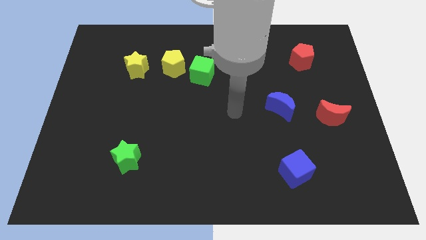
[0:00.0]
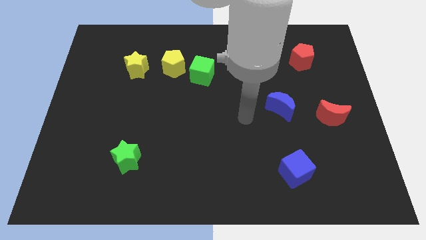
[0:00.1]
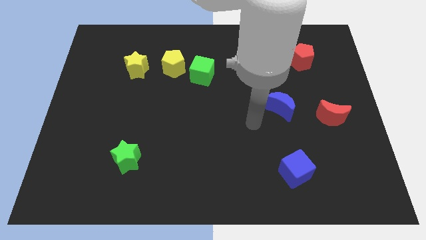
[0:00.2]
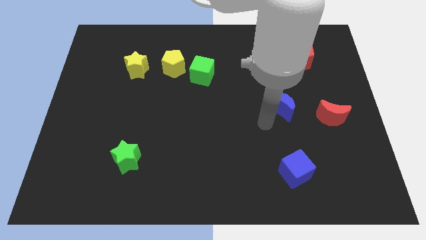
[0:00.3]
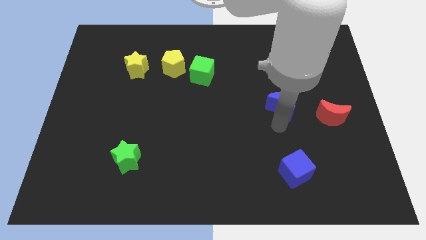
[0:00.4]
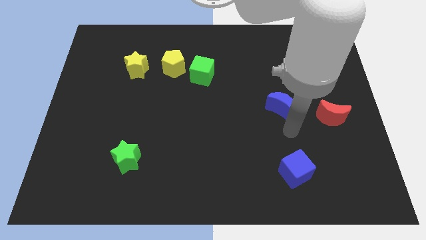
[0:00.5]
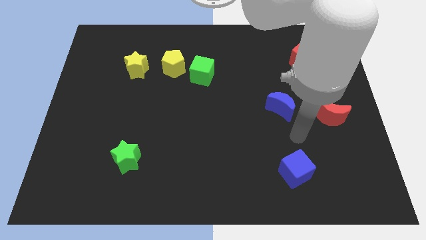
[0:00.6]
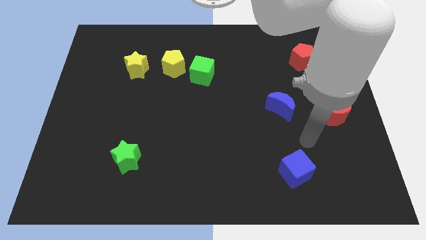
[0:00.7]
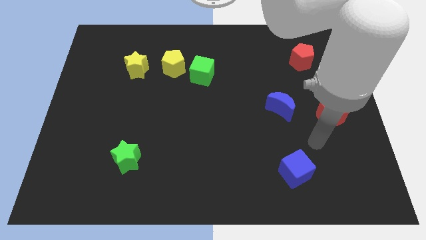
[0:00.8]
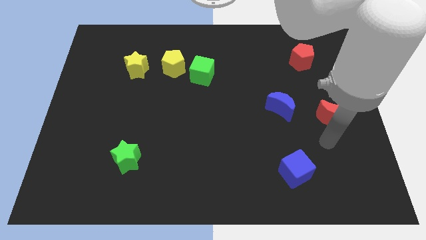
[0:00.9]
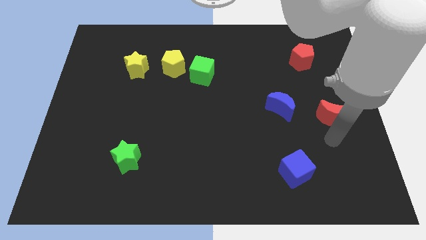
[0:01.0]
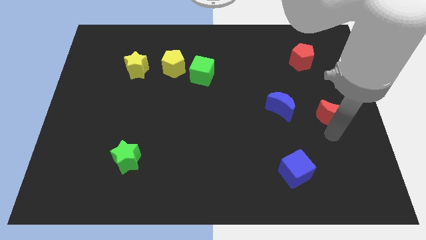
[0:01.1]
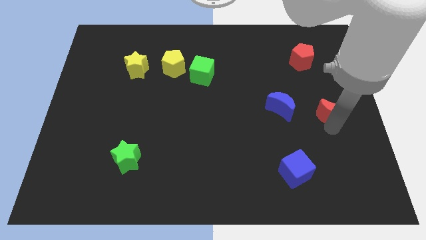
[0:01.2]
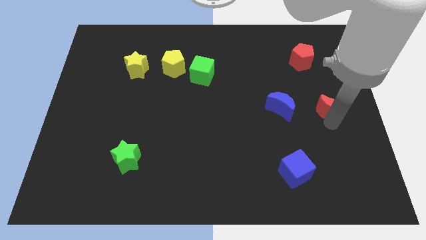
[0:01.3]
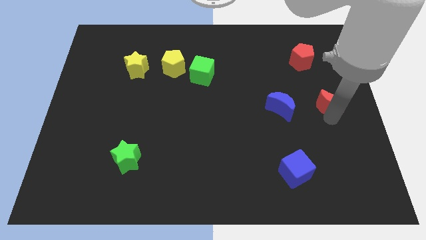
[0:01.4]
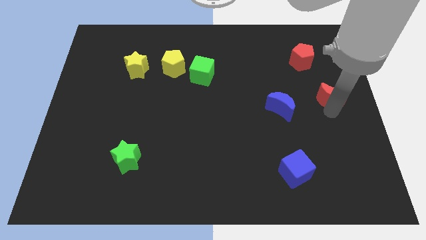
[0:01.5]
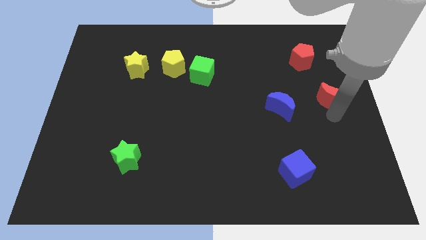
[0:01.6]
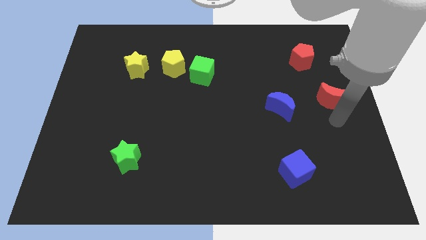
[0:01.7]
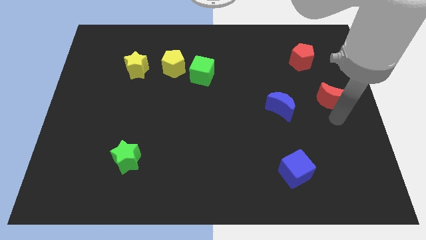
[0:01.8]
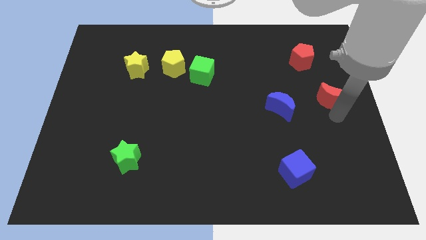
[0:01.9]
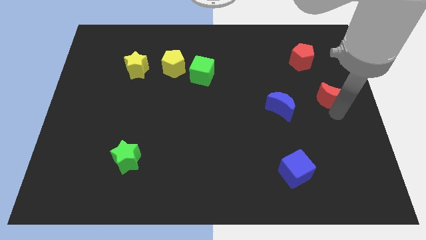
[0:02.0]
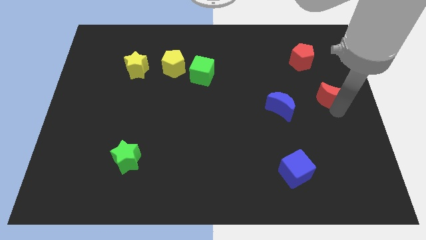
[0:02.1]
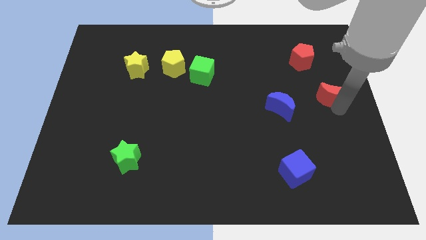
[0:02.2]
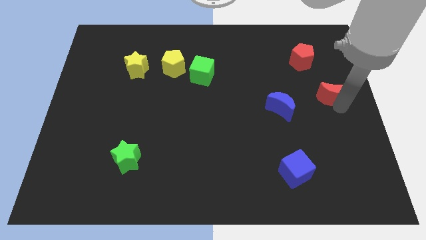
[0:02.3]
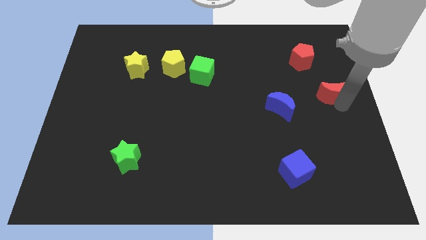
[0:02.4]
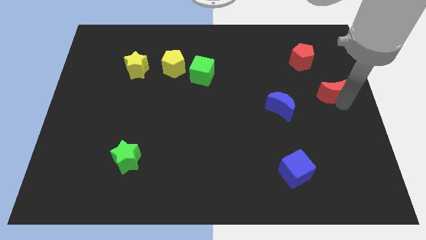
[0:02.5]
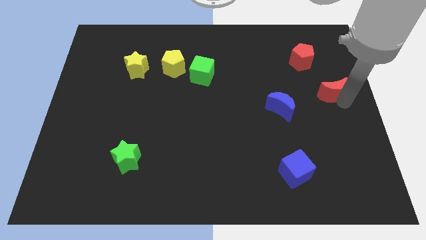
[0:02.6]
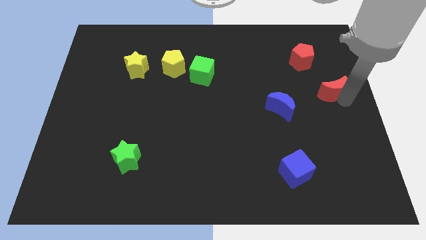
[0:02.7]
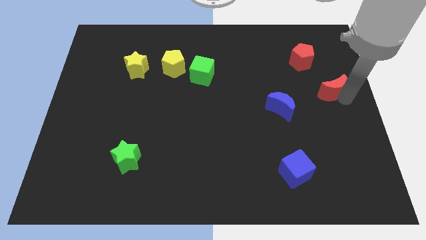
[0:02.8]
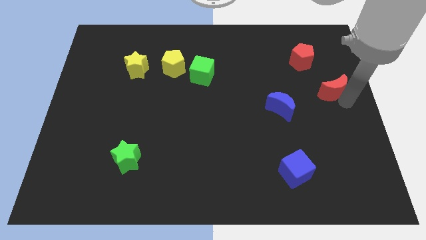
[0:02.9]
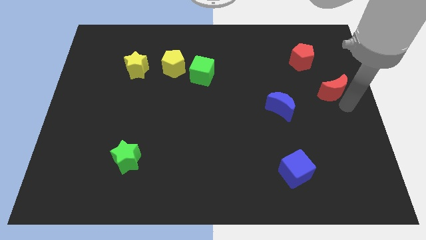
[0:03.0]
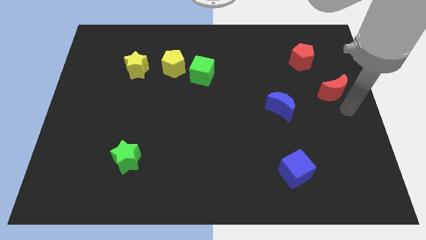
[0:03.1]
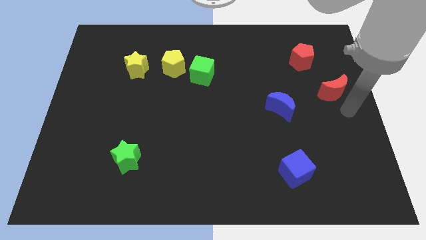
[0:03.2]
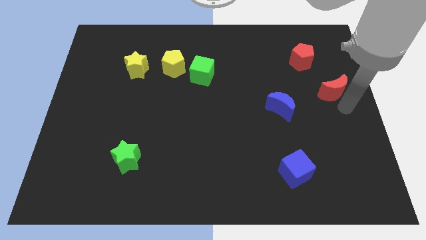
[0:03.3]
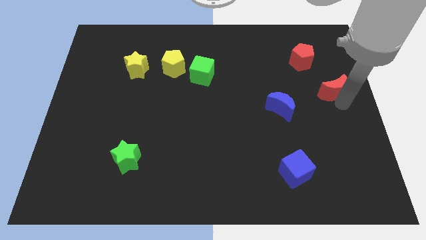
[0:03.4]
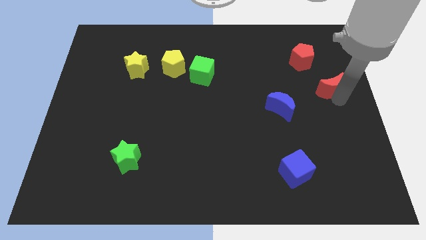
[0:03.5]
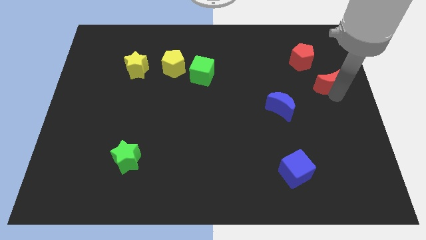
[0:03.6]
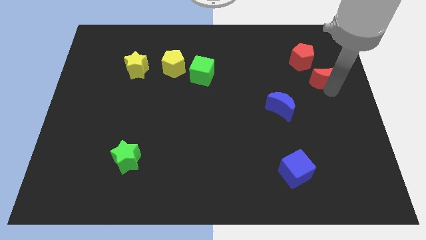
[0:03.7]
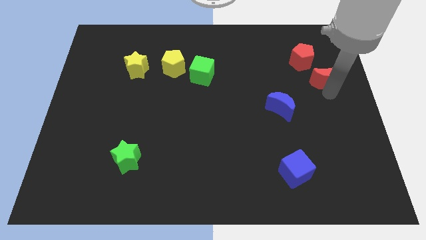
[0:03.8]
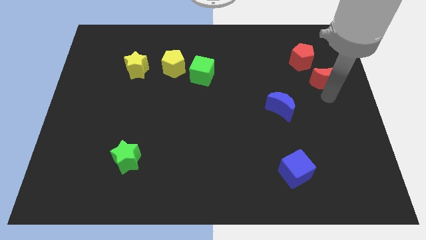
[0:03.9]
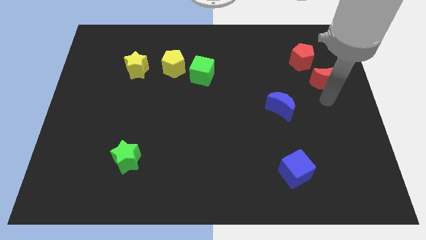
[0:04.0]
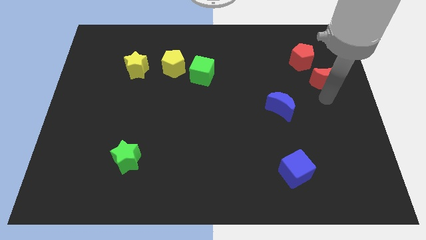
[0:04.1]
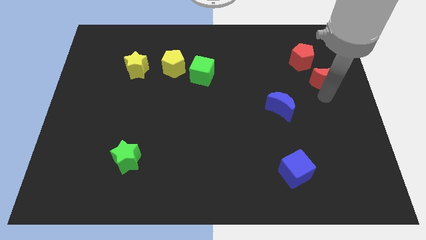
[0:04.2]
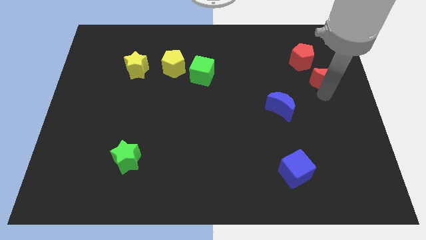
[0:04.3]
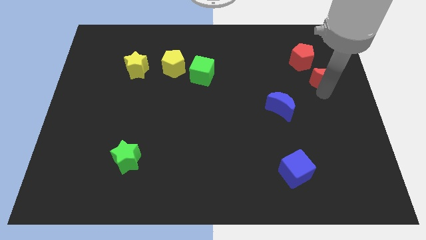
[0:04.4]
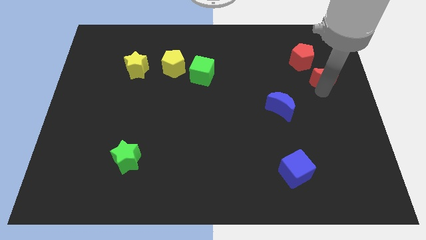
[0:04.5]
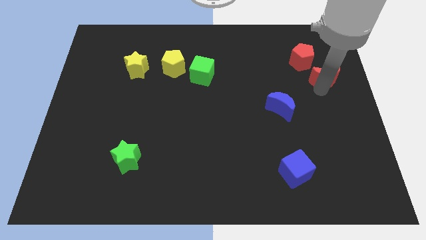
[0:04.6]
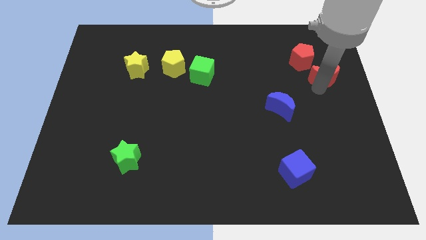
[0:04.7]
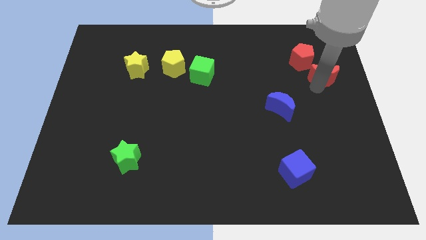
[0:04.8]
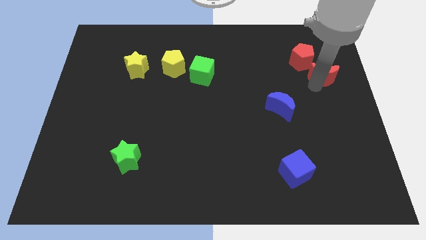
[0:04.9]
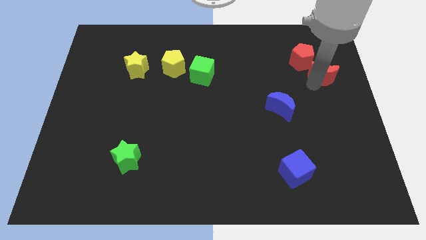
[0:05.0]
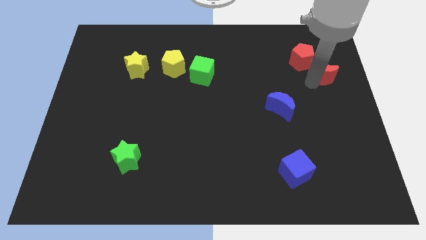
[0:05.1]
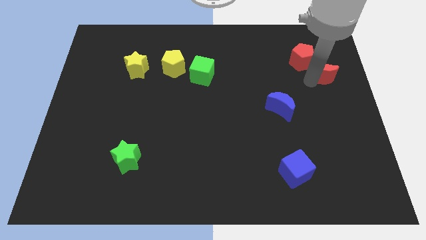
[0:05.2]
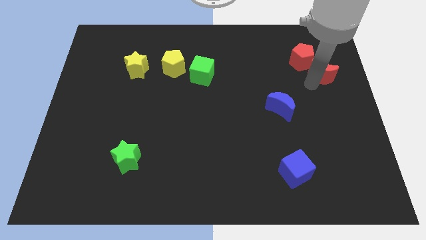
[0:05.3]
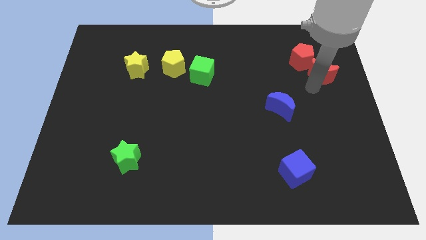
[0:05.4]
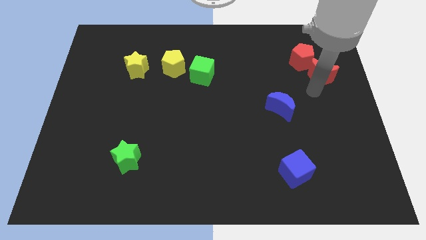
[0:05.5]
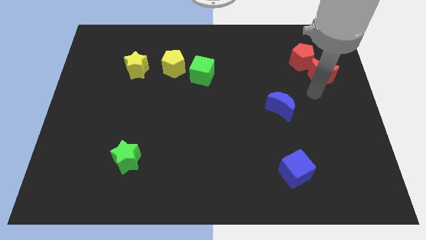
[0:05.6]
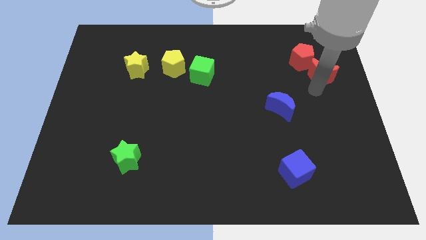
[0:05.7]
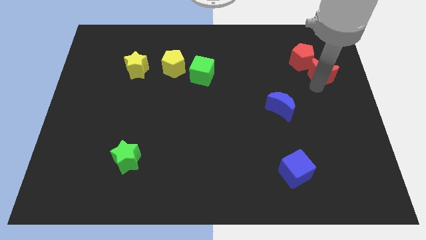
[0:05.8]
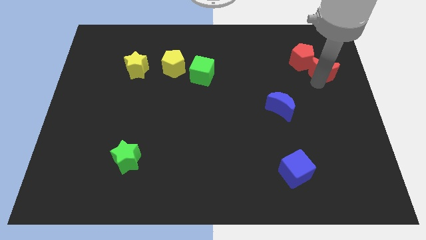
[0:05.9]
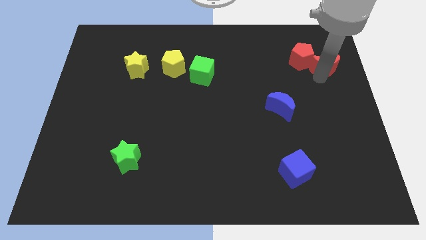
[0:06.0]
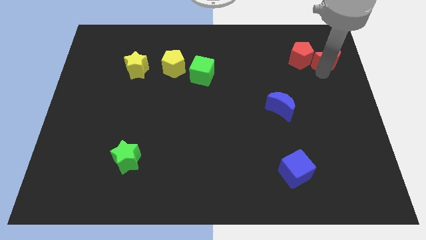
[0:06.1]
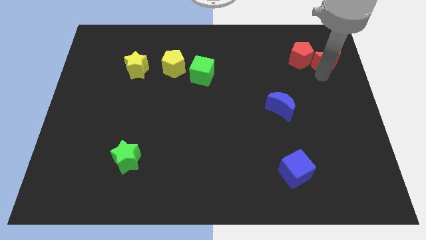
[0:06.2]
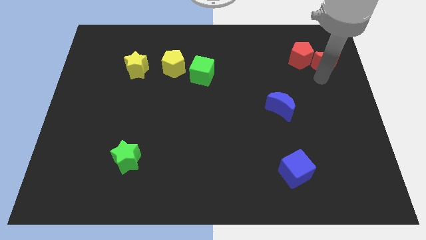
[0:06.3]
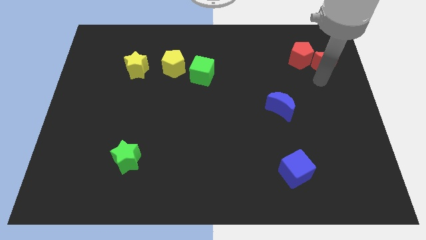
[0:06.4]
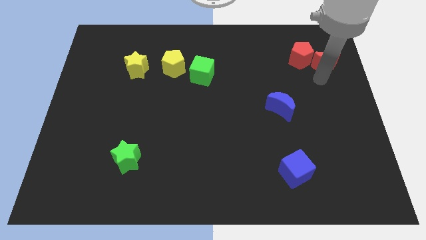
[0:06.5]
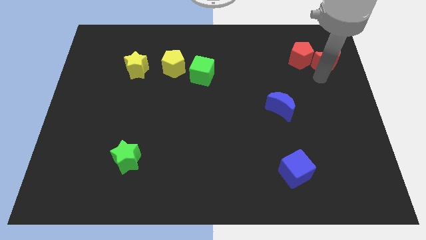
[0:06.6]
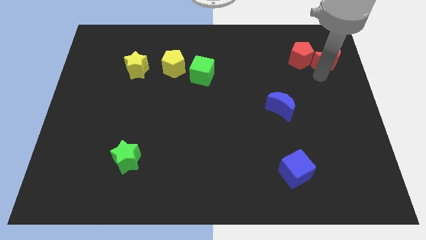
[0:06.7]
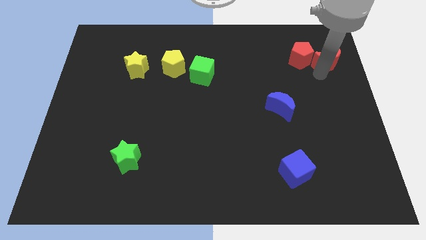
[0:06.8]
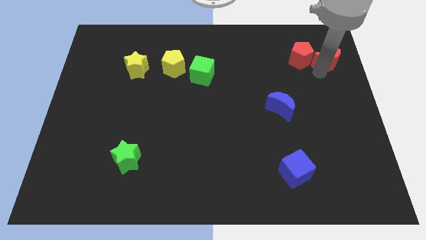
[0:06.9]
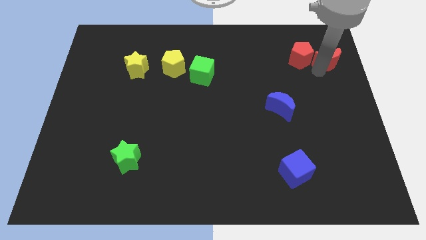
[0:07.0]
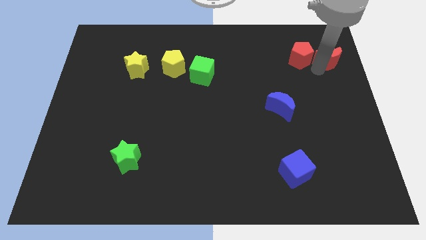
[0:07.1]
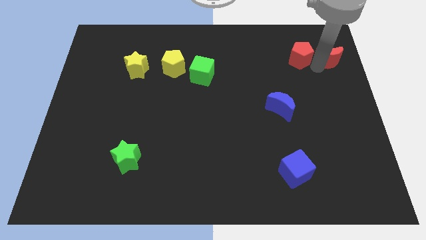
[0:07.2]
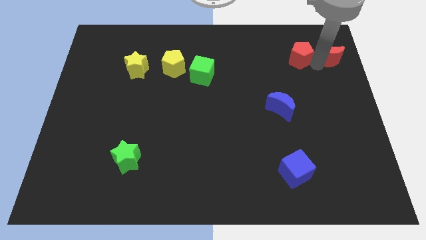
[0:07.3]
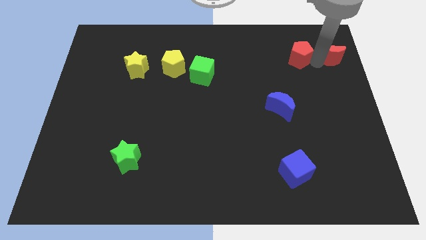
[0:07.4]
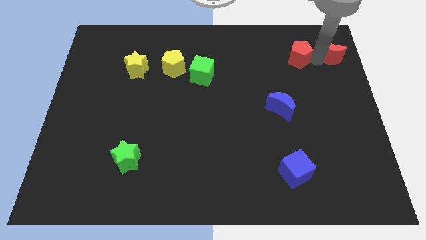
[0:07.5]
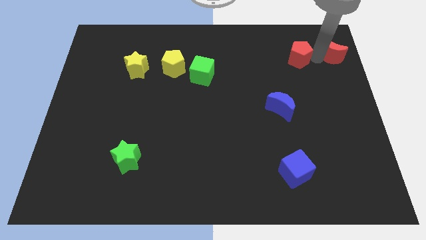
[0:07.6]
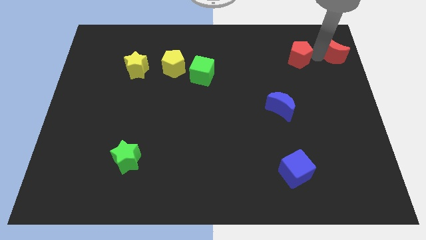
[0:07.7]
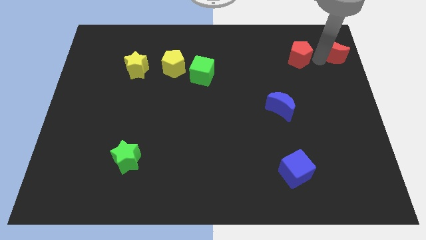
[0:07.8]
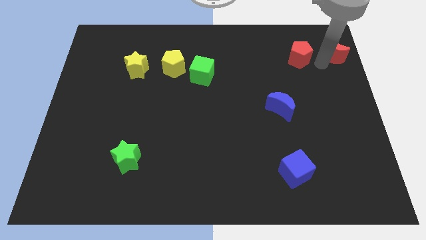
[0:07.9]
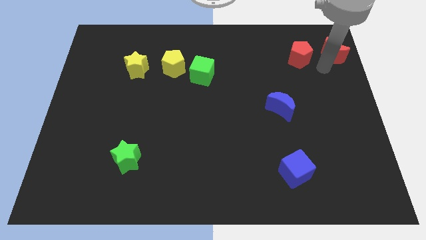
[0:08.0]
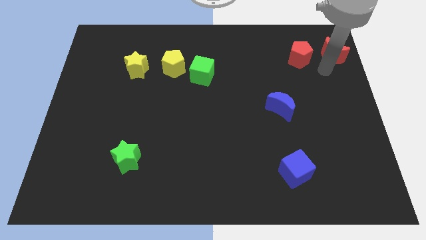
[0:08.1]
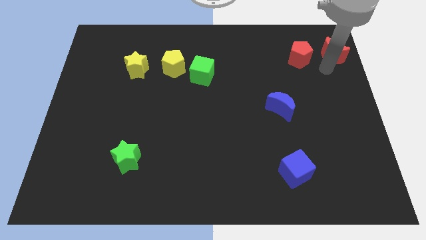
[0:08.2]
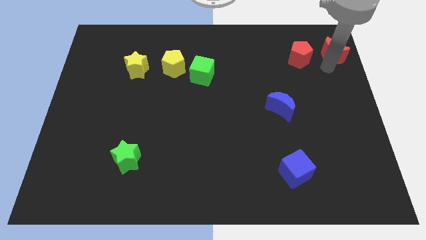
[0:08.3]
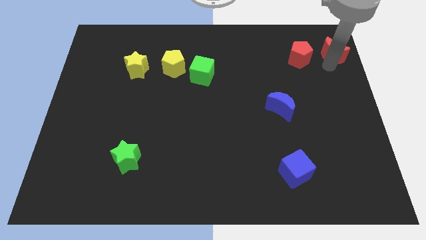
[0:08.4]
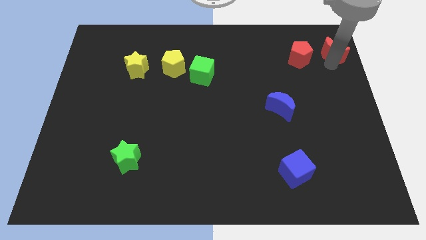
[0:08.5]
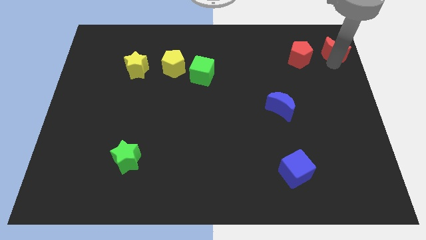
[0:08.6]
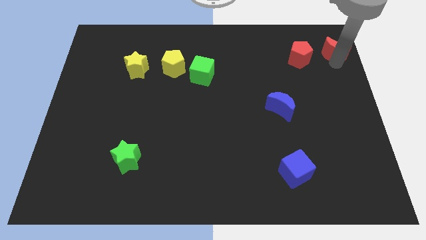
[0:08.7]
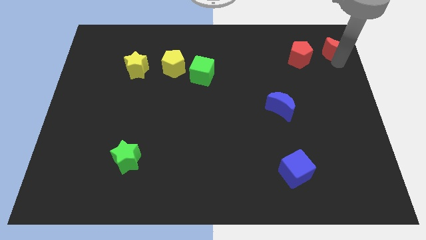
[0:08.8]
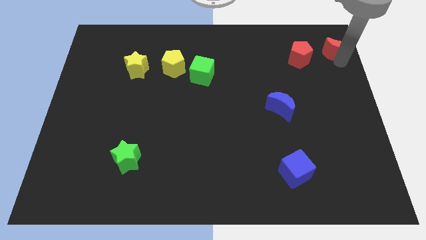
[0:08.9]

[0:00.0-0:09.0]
move the red moon to the top right

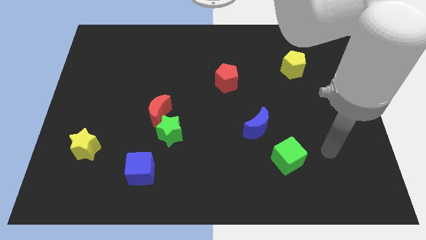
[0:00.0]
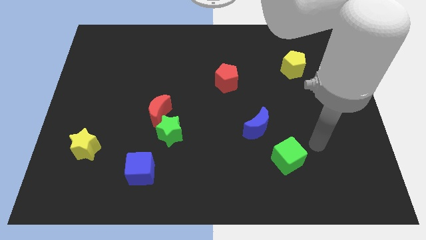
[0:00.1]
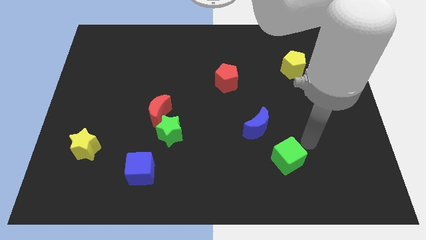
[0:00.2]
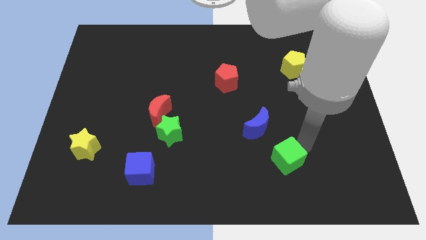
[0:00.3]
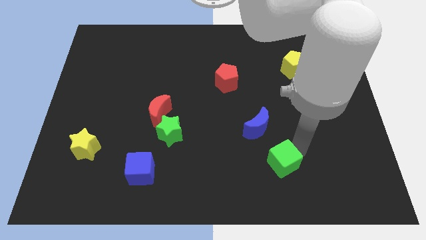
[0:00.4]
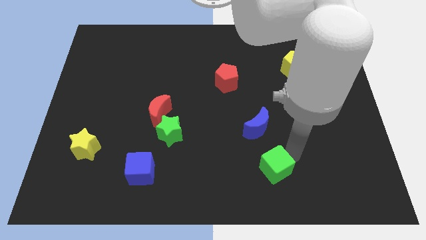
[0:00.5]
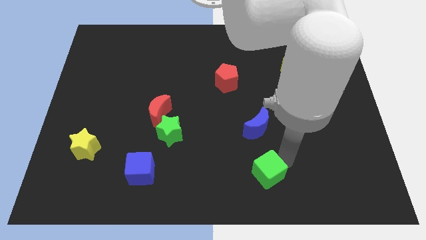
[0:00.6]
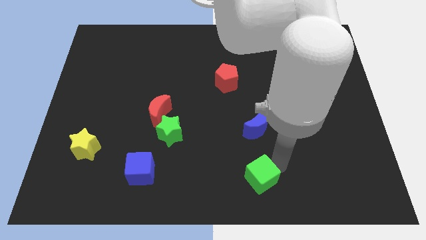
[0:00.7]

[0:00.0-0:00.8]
move the green cube to the bottom
